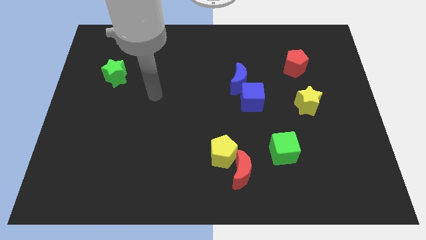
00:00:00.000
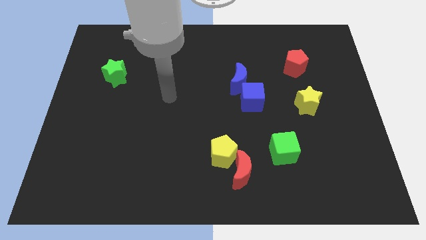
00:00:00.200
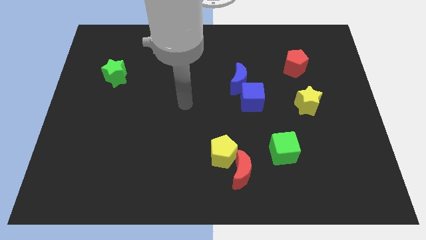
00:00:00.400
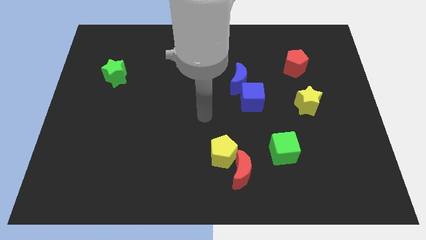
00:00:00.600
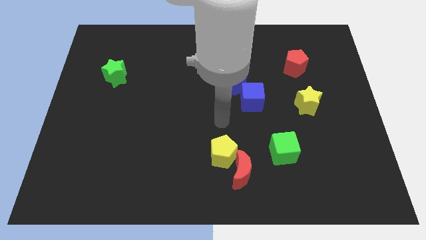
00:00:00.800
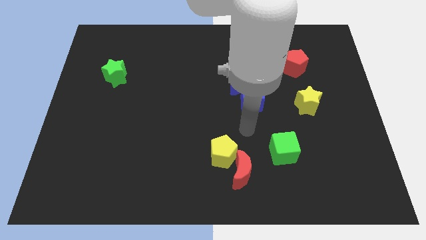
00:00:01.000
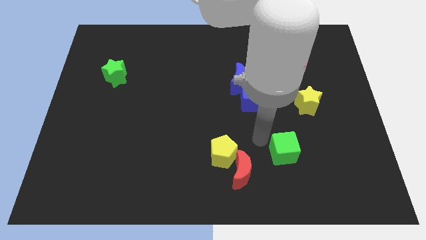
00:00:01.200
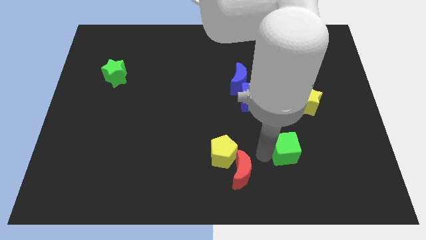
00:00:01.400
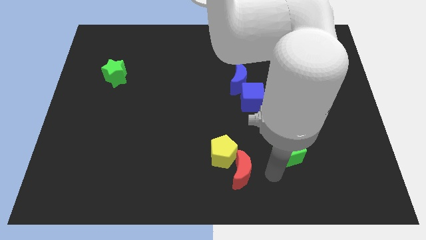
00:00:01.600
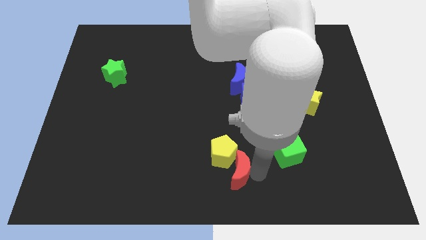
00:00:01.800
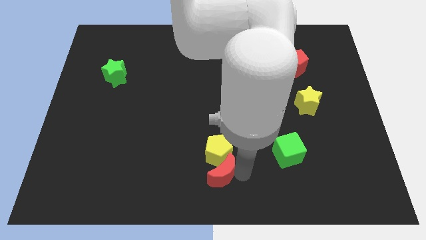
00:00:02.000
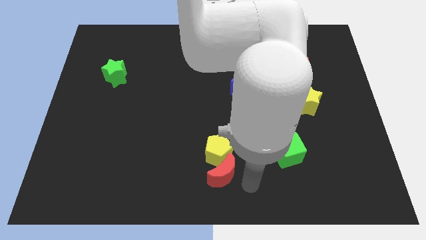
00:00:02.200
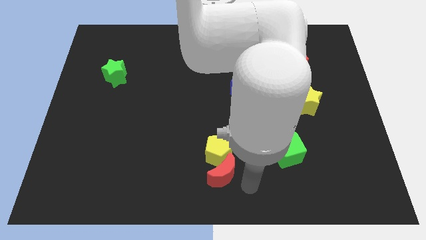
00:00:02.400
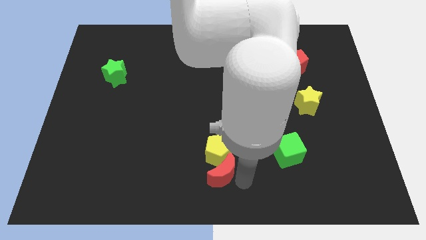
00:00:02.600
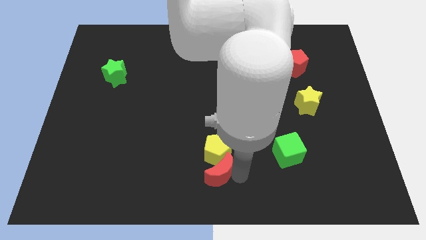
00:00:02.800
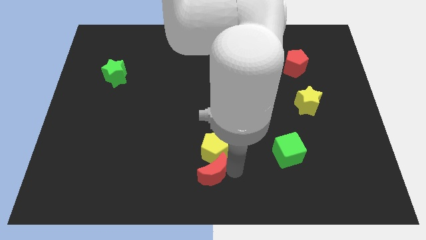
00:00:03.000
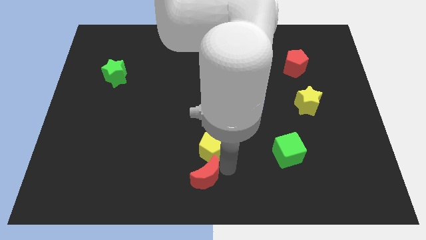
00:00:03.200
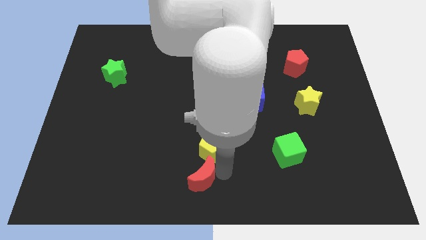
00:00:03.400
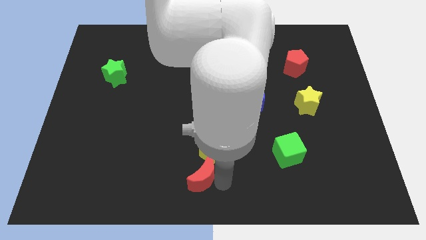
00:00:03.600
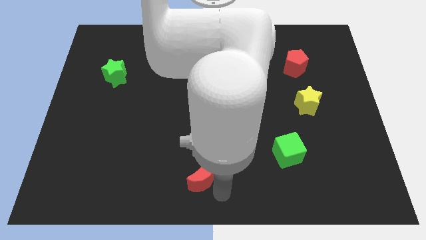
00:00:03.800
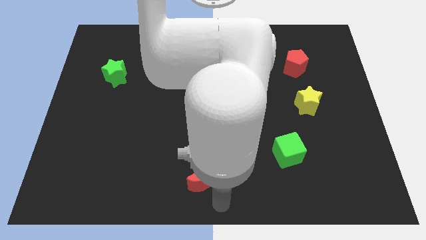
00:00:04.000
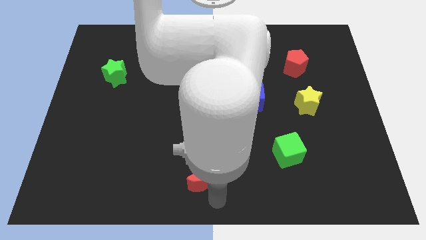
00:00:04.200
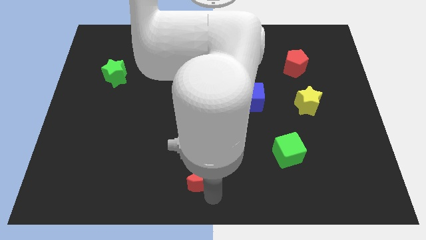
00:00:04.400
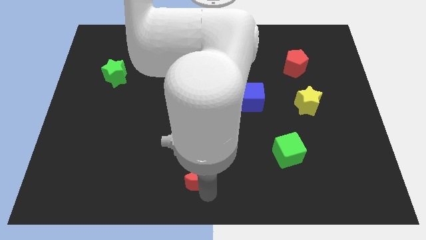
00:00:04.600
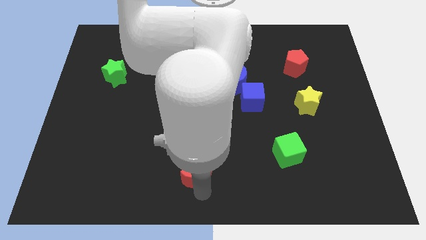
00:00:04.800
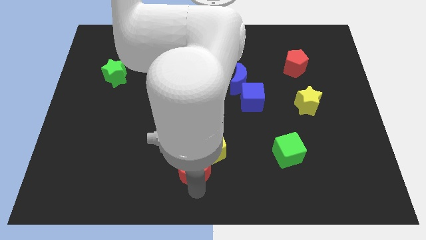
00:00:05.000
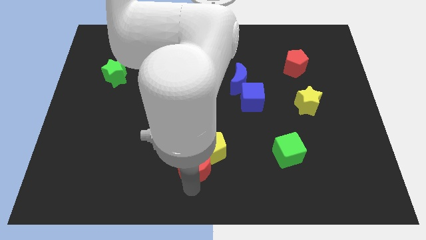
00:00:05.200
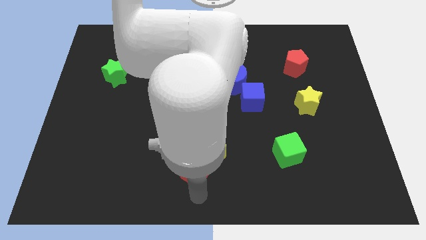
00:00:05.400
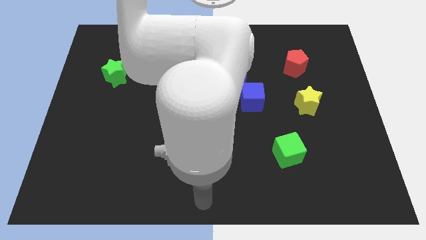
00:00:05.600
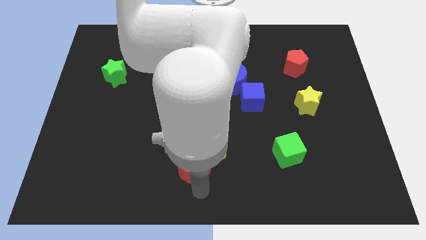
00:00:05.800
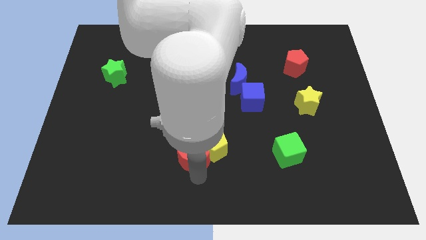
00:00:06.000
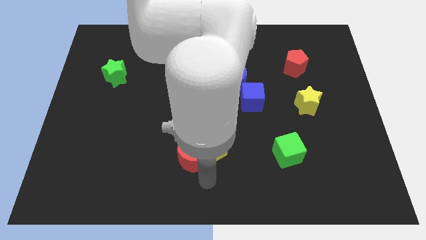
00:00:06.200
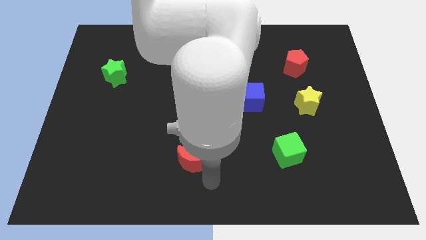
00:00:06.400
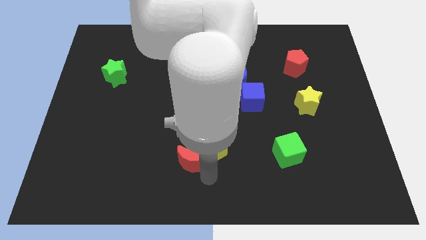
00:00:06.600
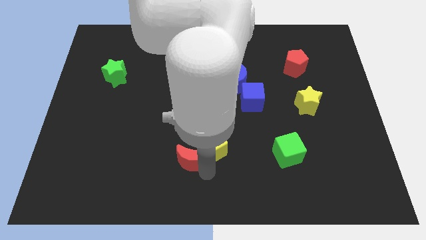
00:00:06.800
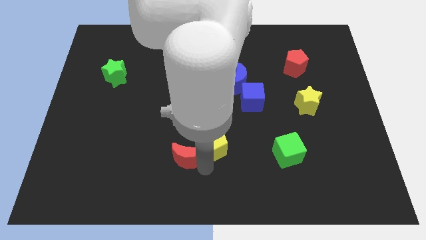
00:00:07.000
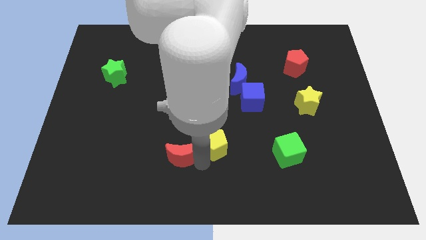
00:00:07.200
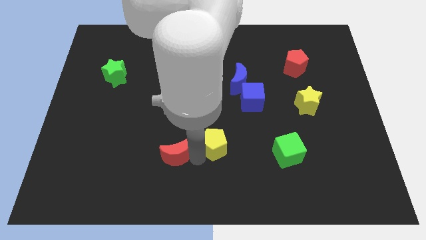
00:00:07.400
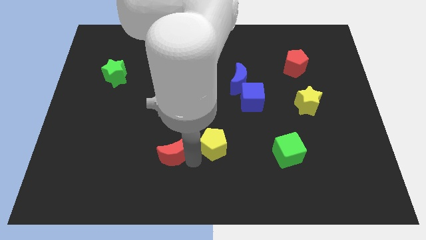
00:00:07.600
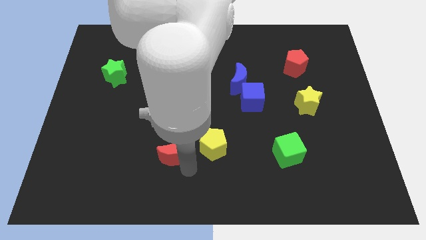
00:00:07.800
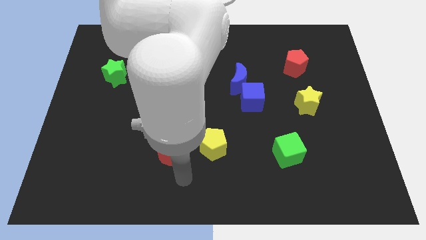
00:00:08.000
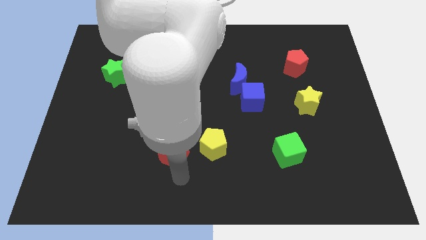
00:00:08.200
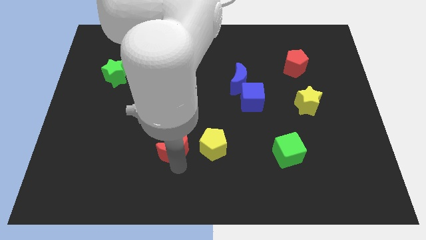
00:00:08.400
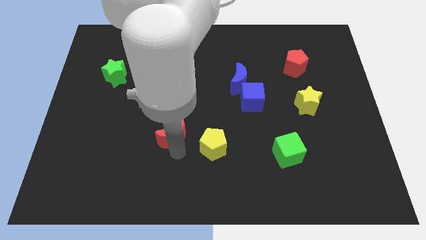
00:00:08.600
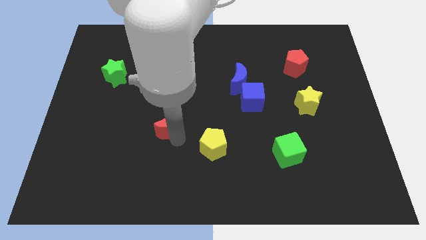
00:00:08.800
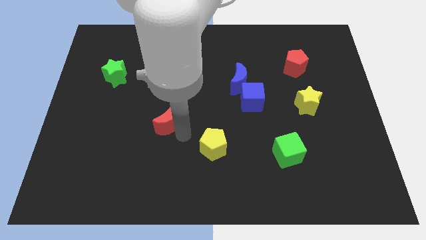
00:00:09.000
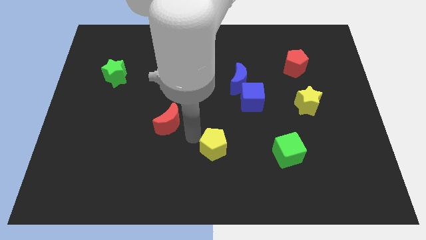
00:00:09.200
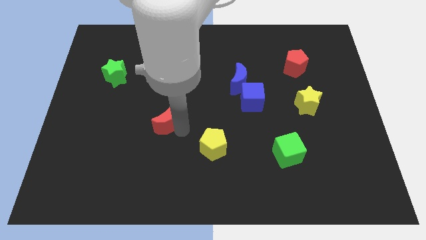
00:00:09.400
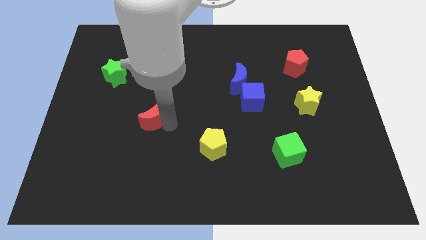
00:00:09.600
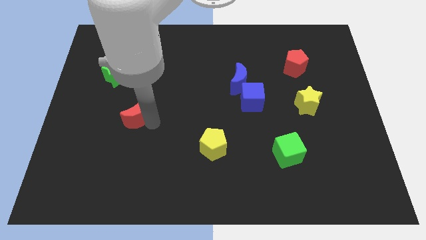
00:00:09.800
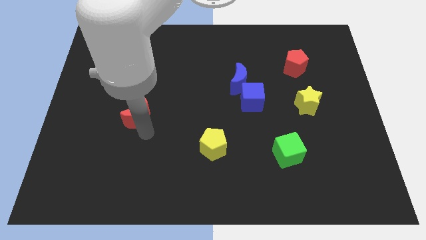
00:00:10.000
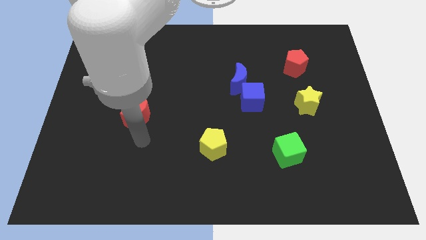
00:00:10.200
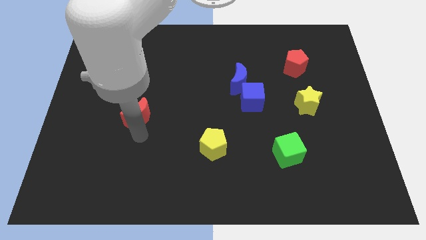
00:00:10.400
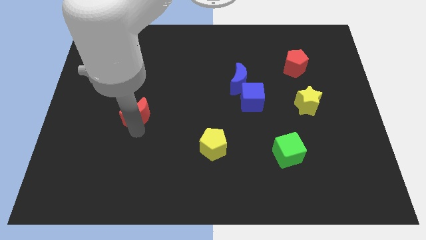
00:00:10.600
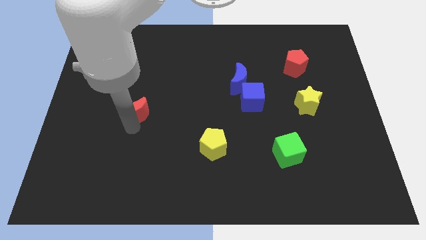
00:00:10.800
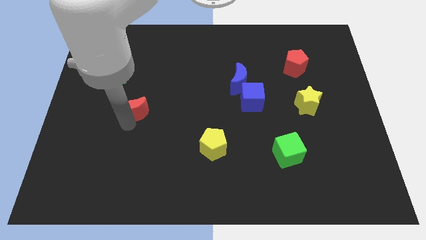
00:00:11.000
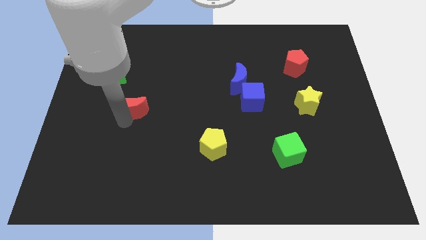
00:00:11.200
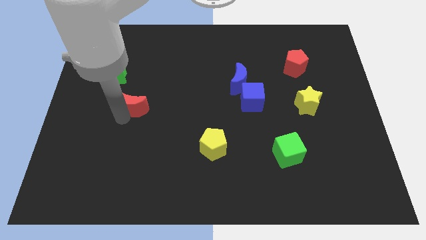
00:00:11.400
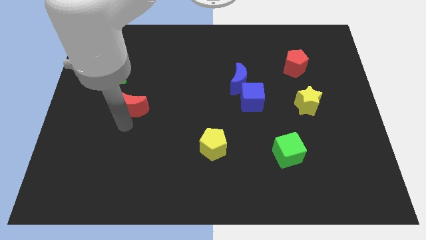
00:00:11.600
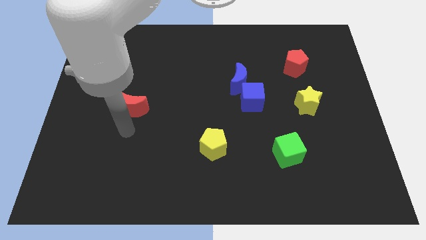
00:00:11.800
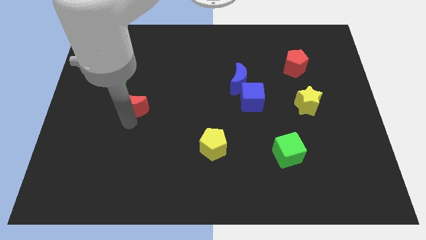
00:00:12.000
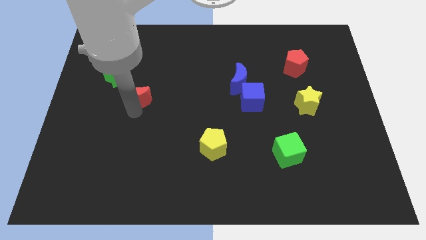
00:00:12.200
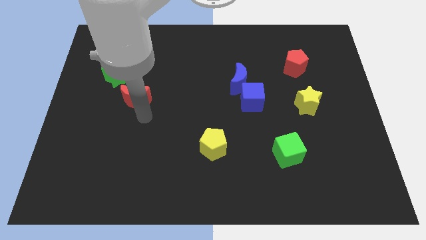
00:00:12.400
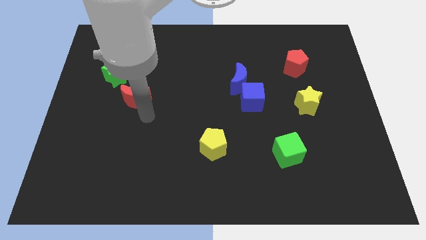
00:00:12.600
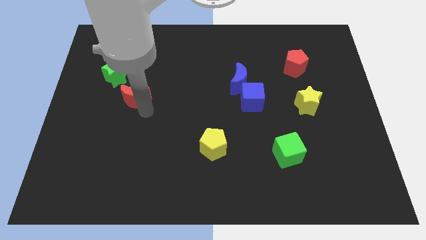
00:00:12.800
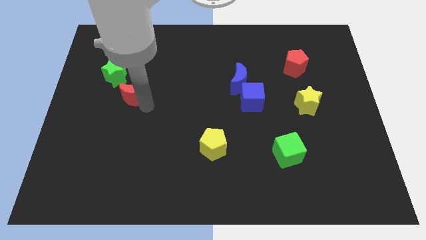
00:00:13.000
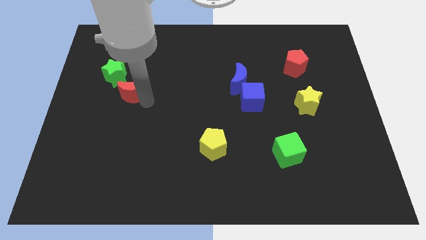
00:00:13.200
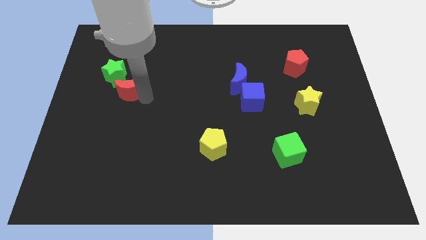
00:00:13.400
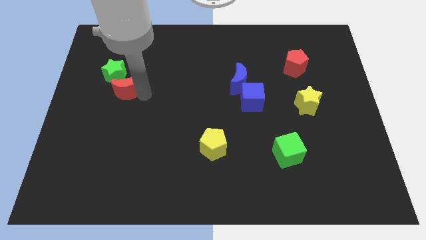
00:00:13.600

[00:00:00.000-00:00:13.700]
push the red moon close to the green star

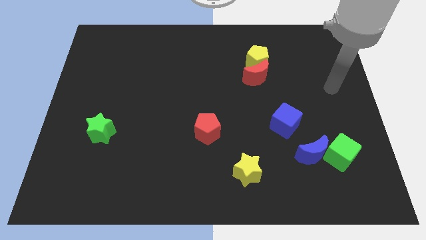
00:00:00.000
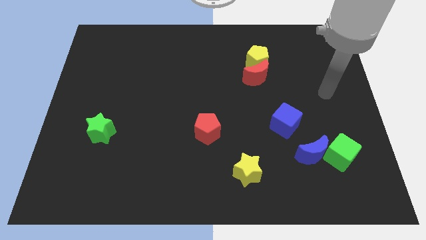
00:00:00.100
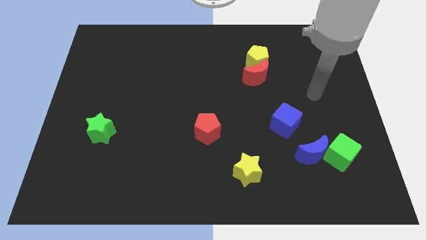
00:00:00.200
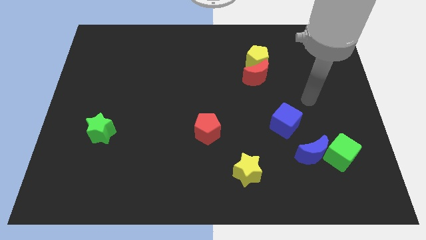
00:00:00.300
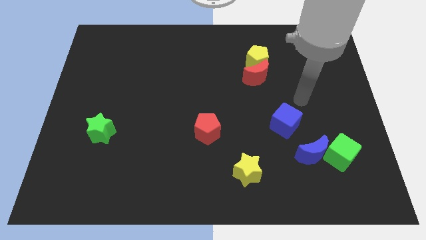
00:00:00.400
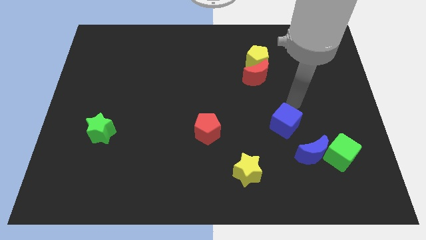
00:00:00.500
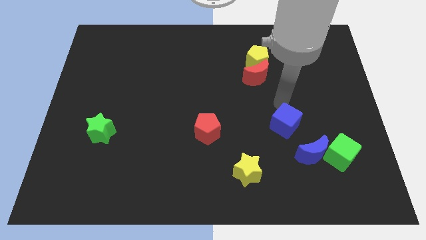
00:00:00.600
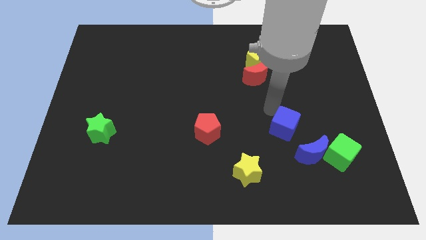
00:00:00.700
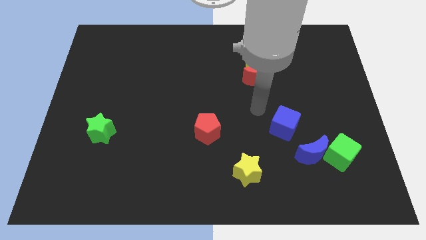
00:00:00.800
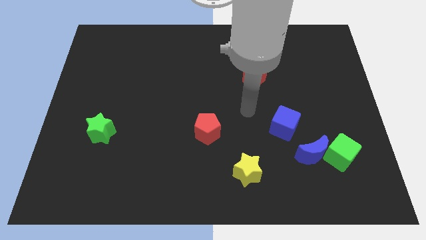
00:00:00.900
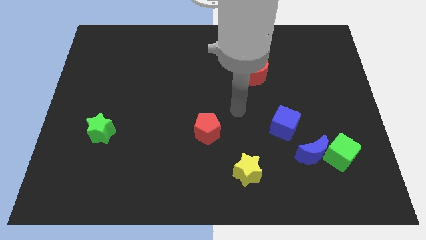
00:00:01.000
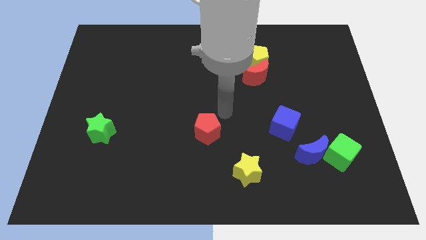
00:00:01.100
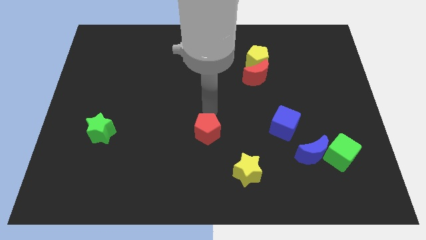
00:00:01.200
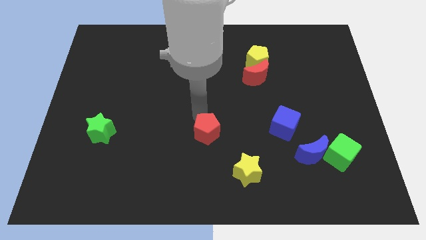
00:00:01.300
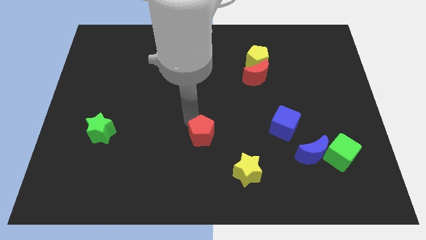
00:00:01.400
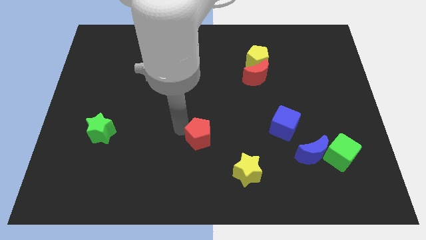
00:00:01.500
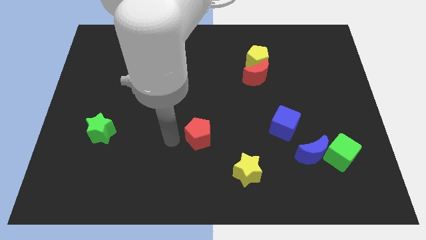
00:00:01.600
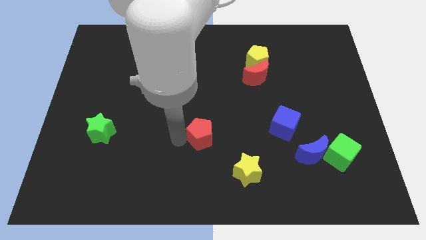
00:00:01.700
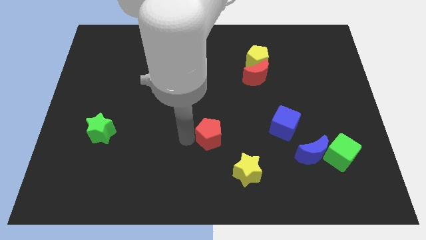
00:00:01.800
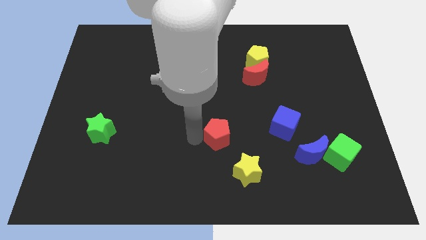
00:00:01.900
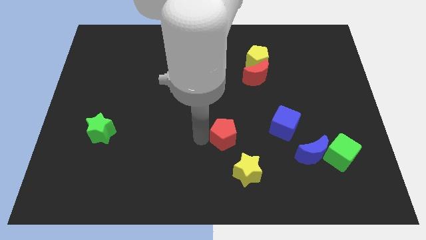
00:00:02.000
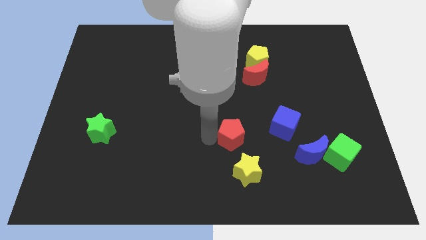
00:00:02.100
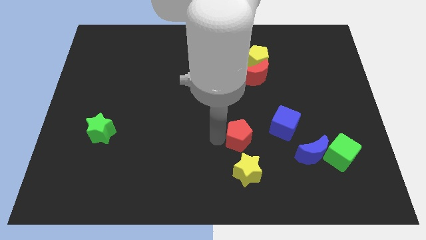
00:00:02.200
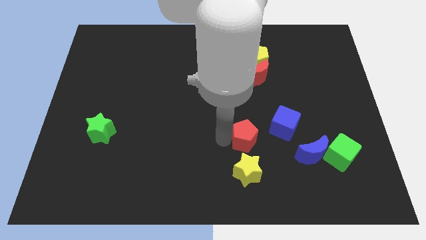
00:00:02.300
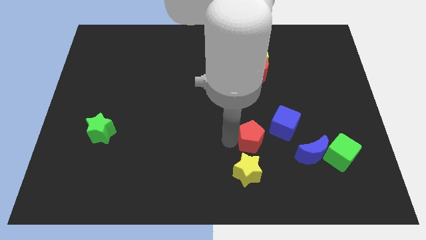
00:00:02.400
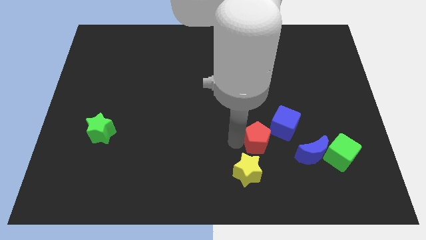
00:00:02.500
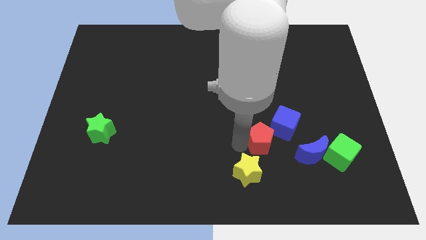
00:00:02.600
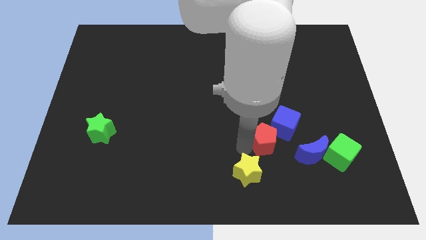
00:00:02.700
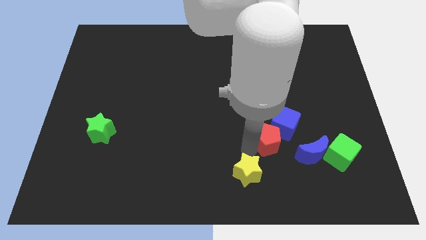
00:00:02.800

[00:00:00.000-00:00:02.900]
push the red pentagon next to the blue cube
